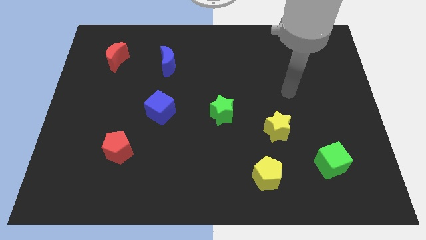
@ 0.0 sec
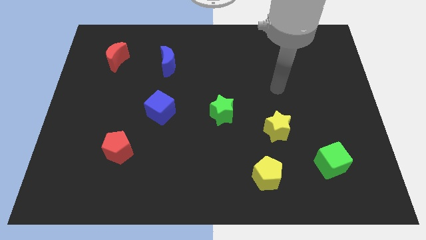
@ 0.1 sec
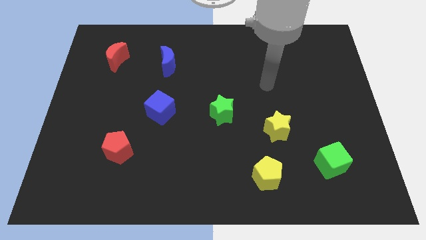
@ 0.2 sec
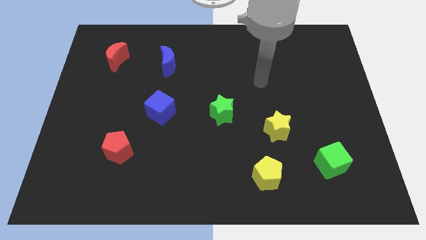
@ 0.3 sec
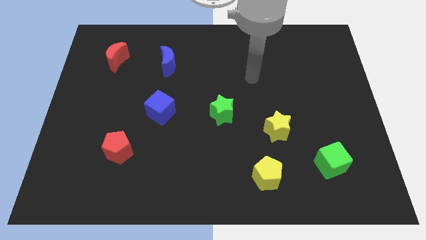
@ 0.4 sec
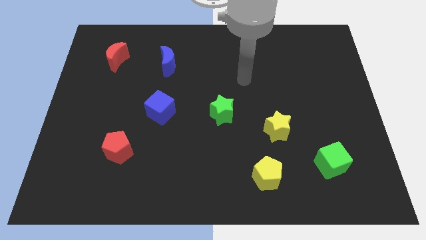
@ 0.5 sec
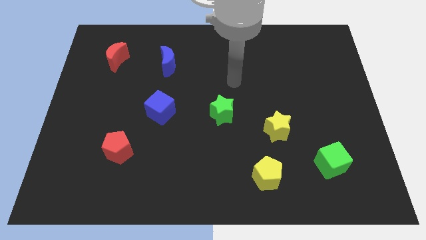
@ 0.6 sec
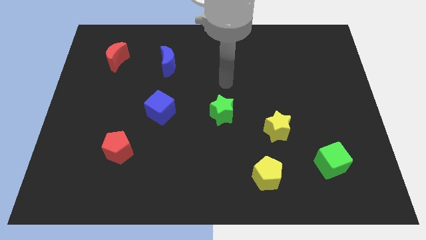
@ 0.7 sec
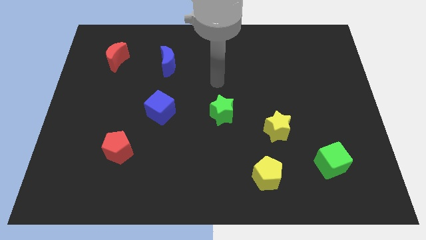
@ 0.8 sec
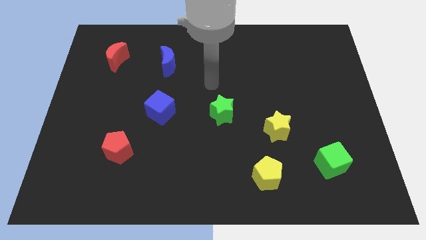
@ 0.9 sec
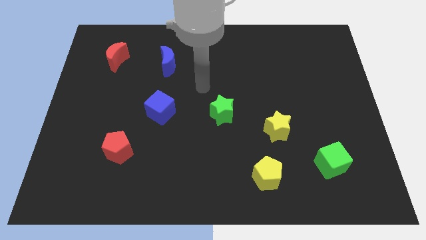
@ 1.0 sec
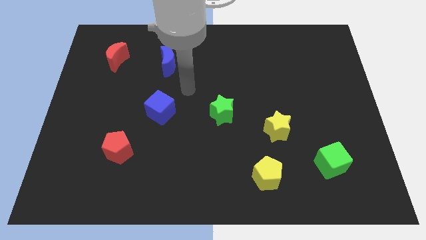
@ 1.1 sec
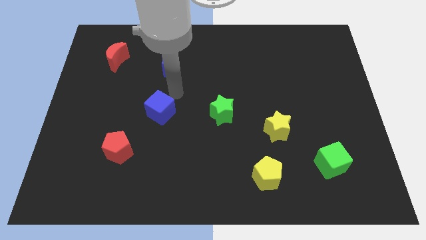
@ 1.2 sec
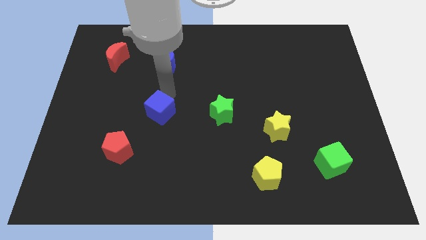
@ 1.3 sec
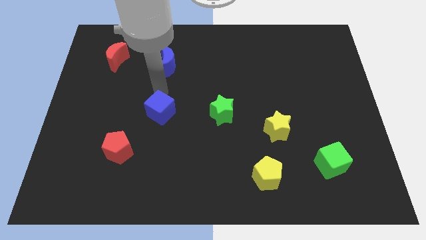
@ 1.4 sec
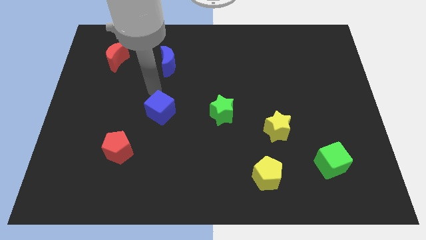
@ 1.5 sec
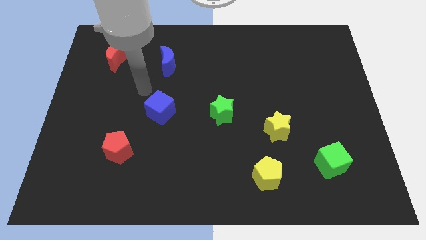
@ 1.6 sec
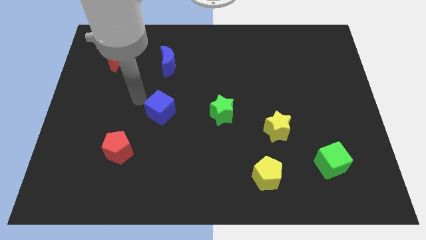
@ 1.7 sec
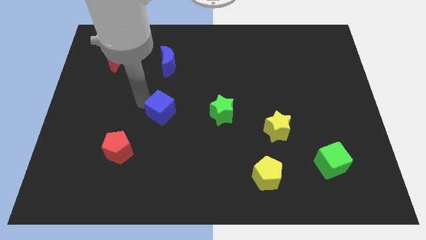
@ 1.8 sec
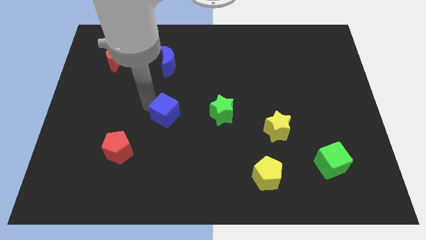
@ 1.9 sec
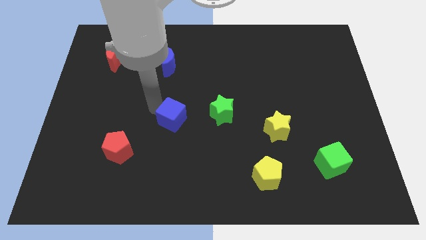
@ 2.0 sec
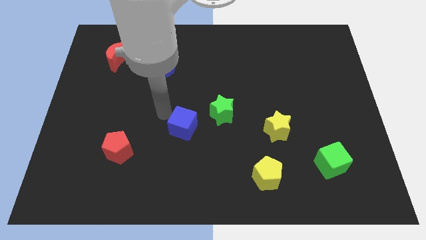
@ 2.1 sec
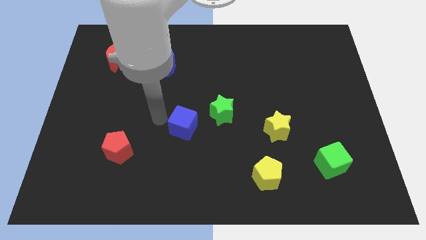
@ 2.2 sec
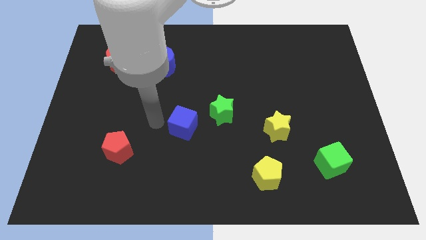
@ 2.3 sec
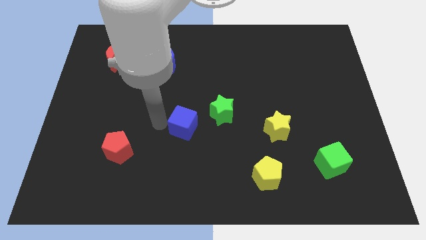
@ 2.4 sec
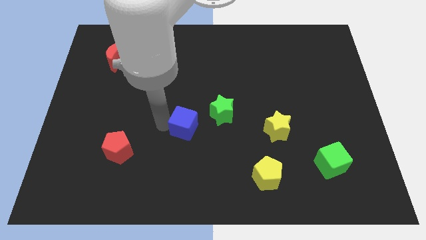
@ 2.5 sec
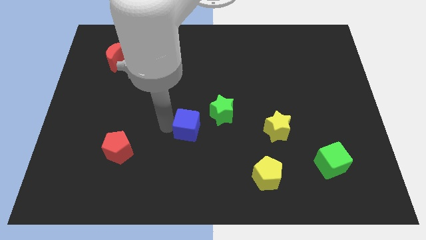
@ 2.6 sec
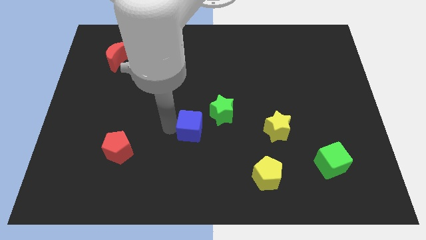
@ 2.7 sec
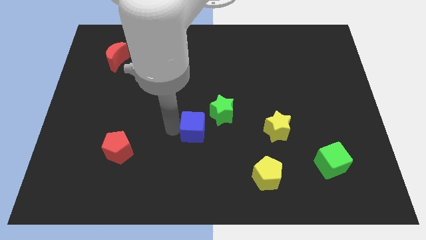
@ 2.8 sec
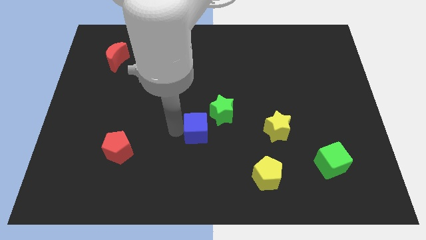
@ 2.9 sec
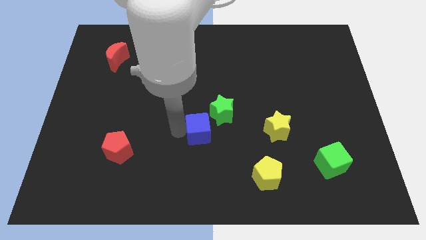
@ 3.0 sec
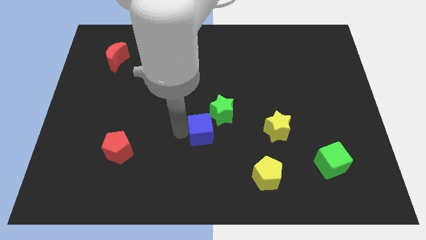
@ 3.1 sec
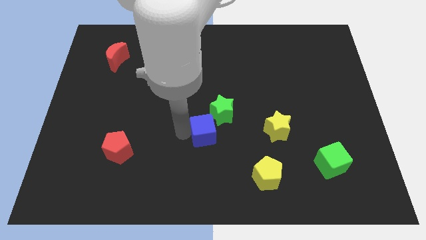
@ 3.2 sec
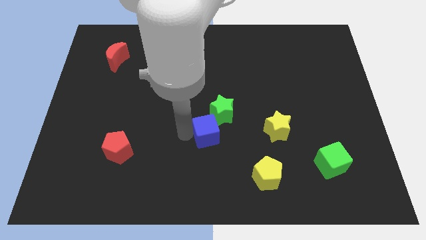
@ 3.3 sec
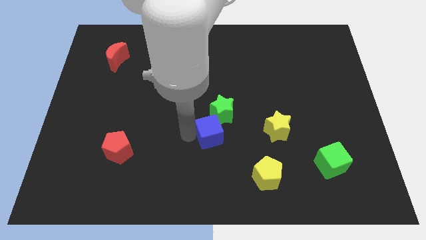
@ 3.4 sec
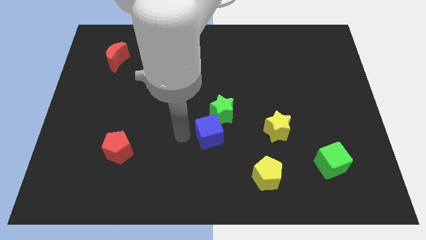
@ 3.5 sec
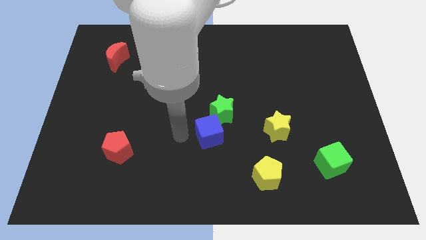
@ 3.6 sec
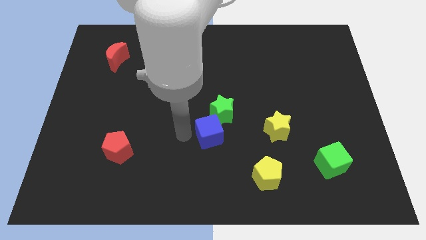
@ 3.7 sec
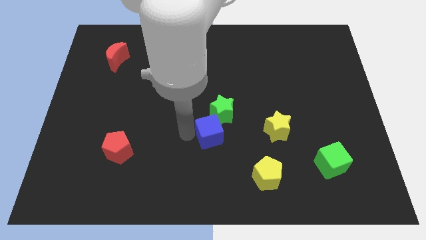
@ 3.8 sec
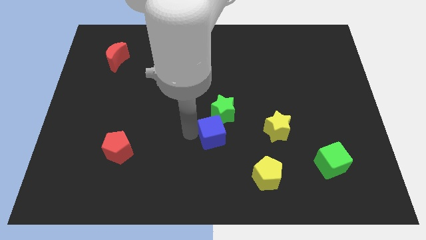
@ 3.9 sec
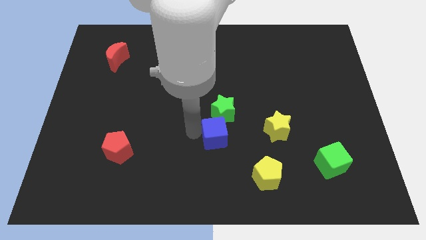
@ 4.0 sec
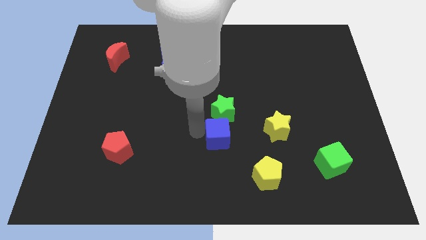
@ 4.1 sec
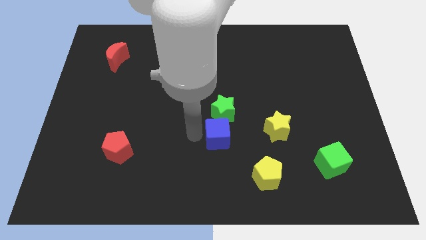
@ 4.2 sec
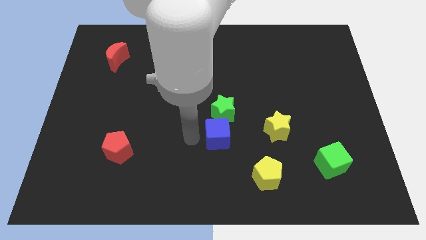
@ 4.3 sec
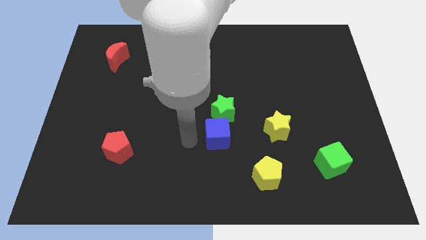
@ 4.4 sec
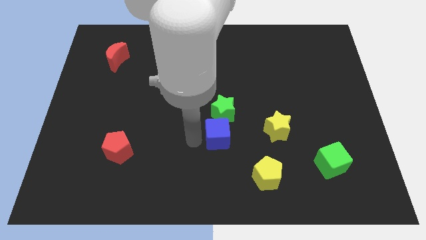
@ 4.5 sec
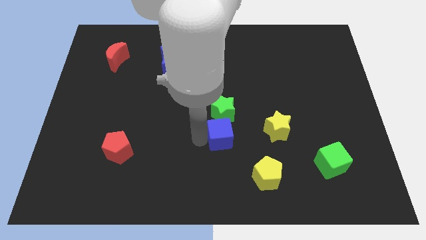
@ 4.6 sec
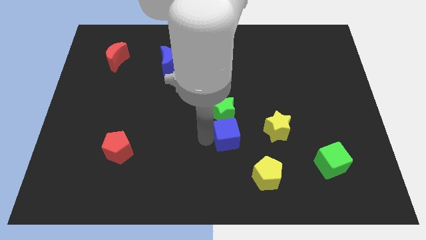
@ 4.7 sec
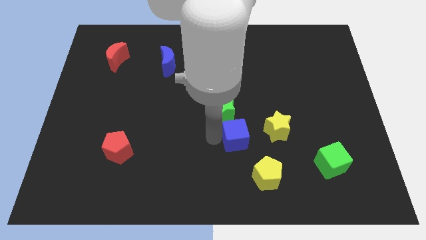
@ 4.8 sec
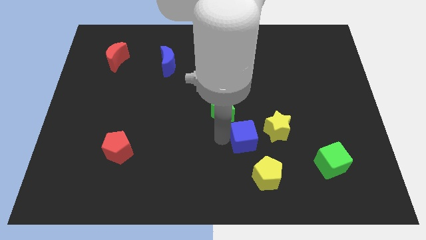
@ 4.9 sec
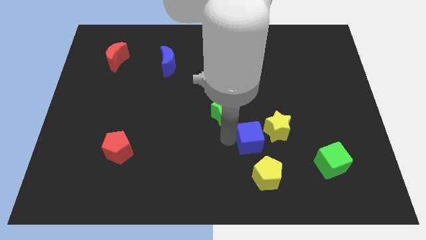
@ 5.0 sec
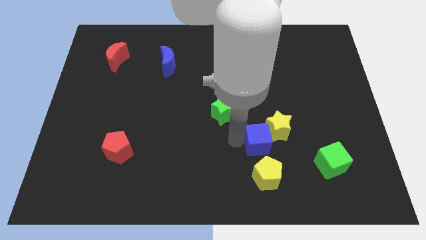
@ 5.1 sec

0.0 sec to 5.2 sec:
slide the blue cube towards the yellow star

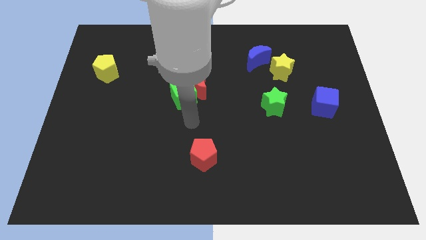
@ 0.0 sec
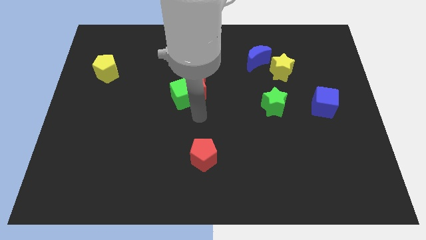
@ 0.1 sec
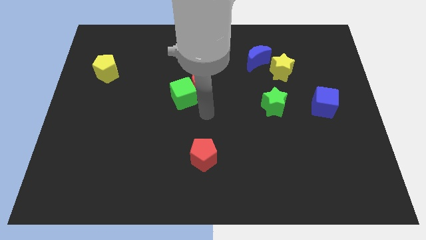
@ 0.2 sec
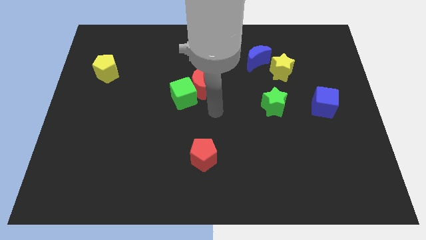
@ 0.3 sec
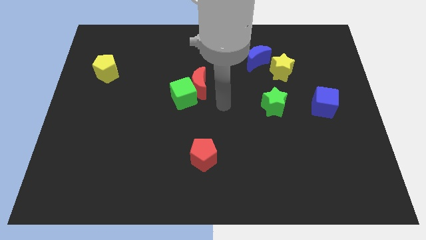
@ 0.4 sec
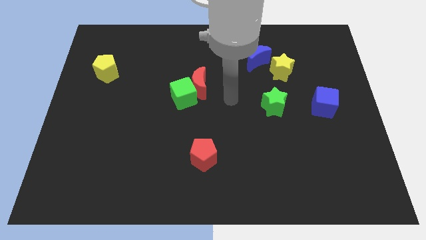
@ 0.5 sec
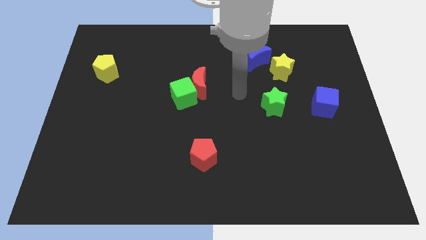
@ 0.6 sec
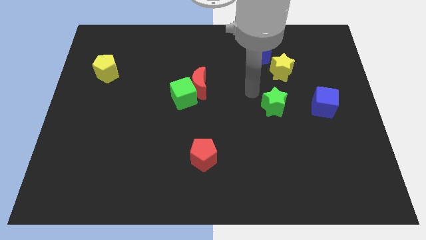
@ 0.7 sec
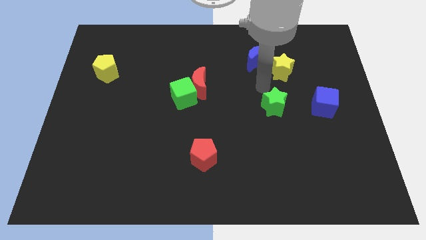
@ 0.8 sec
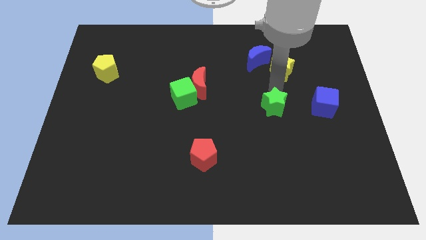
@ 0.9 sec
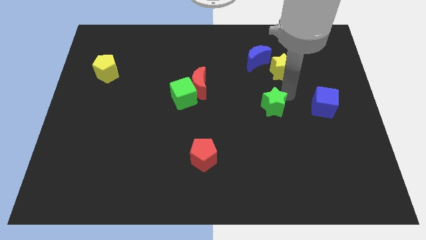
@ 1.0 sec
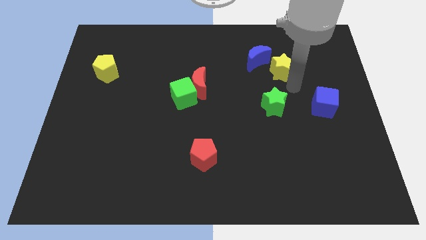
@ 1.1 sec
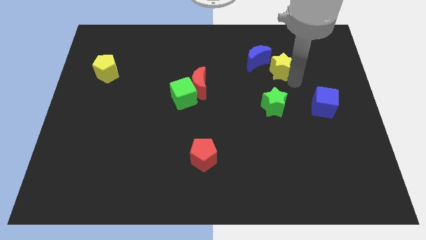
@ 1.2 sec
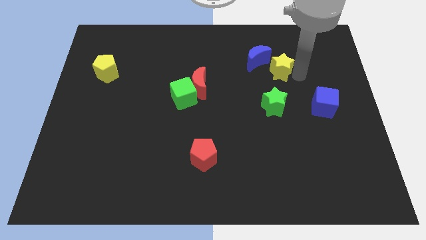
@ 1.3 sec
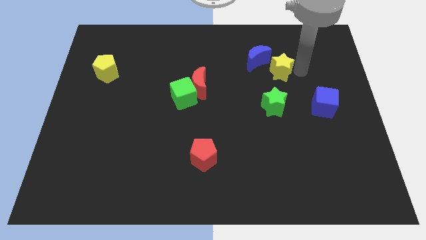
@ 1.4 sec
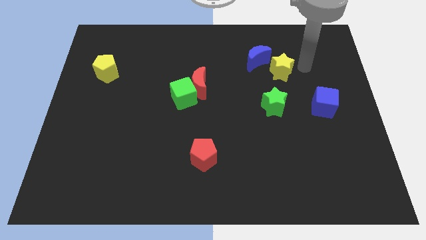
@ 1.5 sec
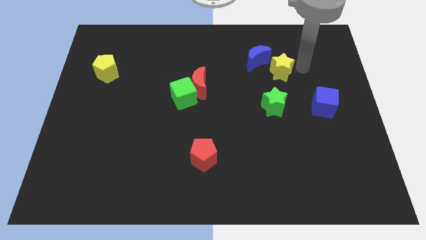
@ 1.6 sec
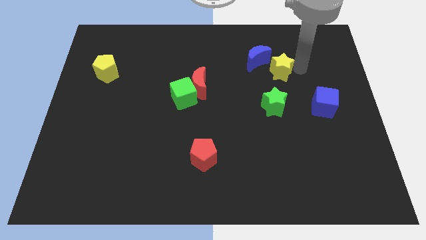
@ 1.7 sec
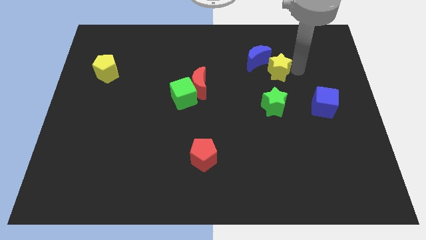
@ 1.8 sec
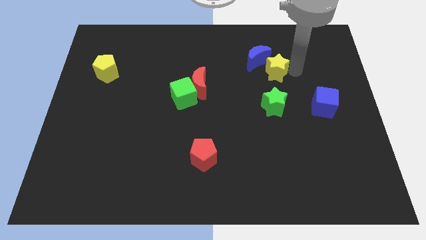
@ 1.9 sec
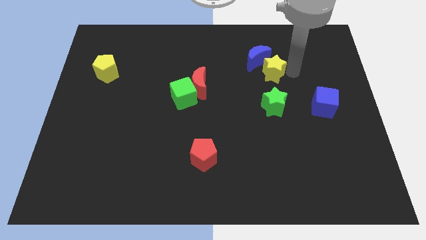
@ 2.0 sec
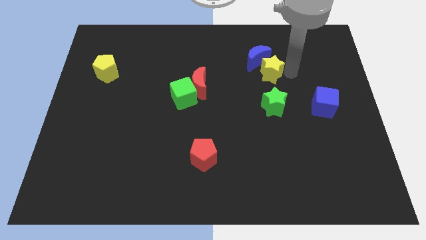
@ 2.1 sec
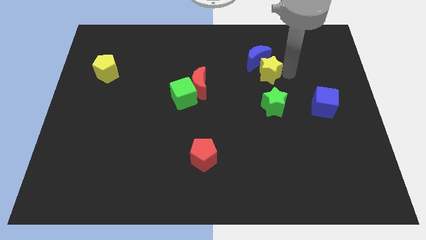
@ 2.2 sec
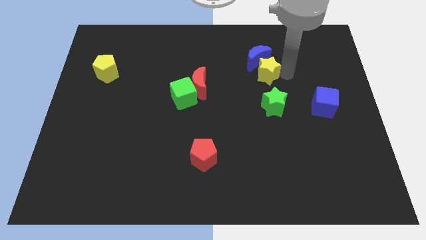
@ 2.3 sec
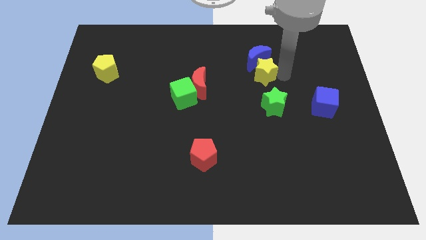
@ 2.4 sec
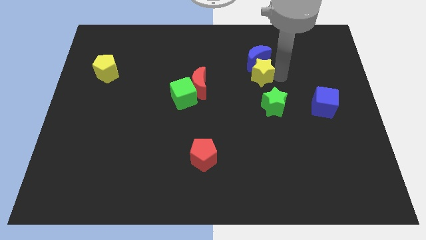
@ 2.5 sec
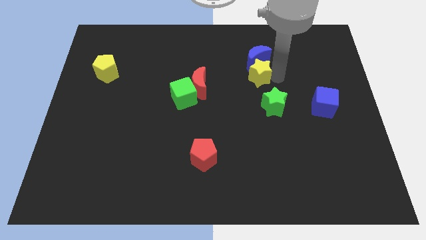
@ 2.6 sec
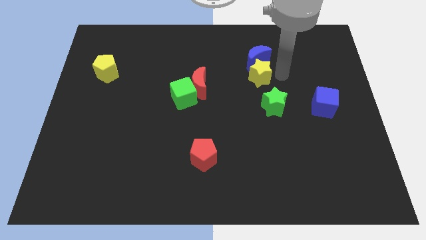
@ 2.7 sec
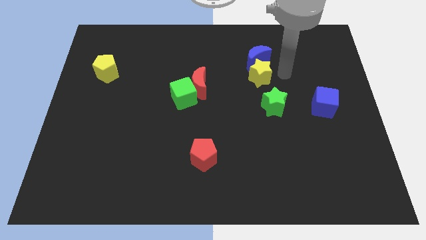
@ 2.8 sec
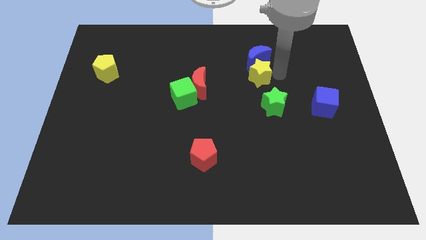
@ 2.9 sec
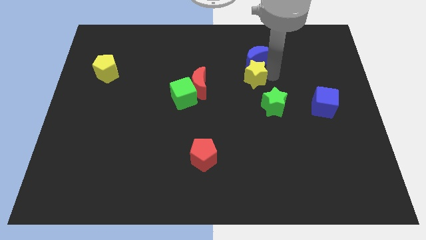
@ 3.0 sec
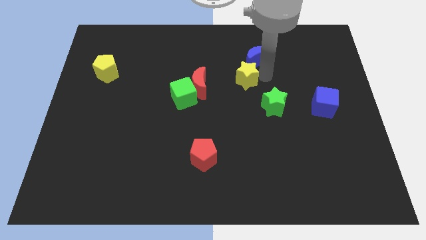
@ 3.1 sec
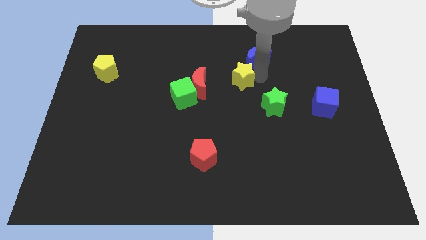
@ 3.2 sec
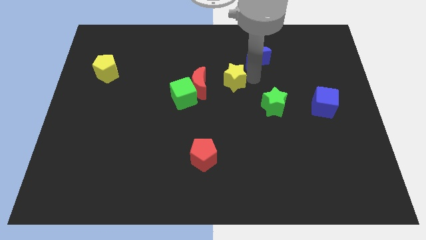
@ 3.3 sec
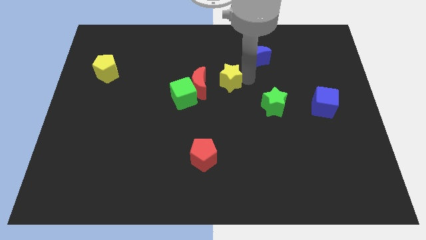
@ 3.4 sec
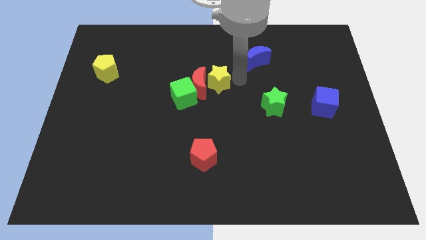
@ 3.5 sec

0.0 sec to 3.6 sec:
push the yellow star to the red moon
